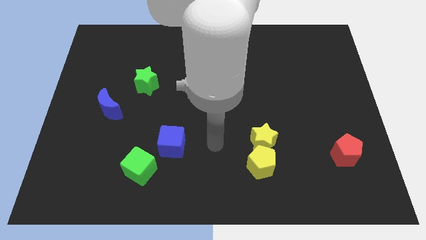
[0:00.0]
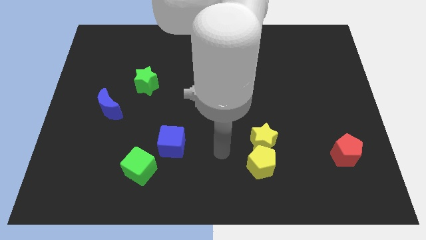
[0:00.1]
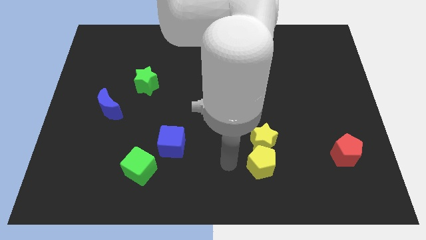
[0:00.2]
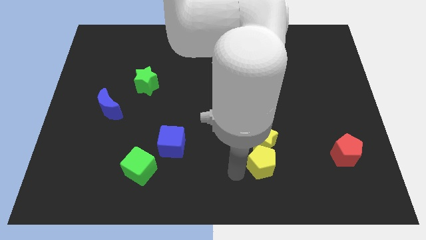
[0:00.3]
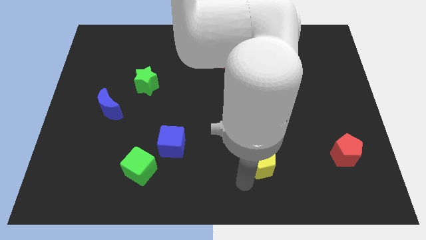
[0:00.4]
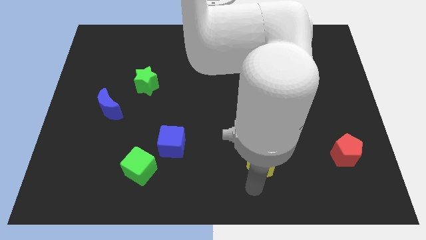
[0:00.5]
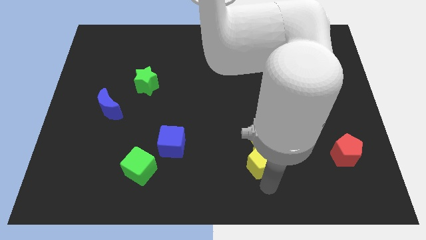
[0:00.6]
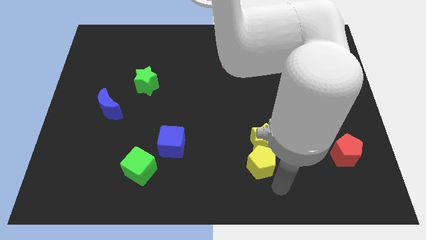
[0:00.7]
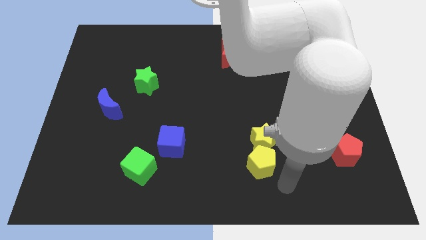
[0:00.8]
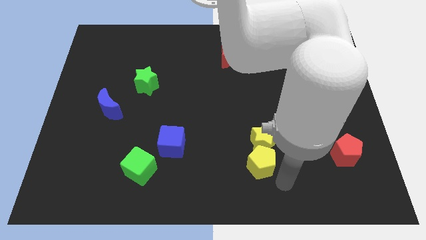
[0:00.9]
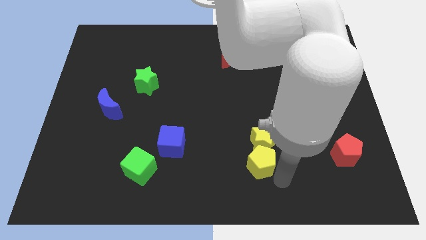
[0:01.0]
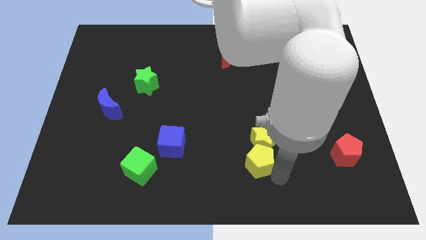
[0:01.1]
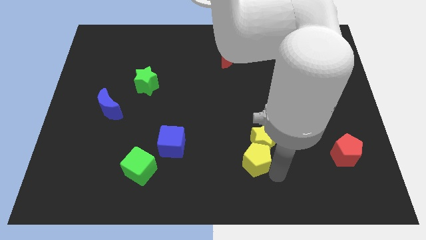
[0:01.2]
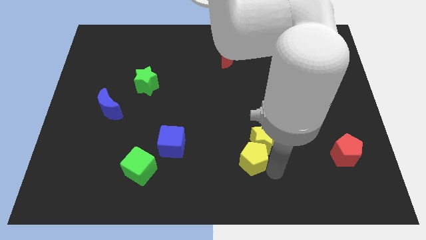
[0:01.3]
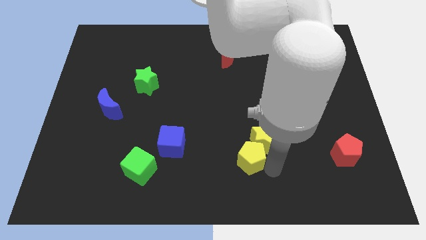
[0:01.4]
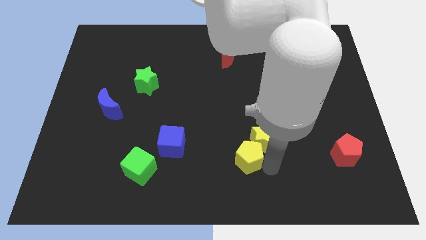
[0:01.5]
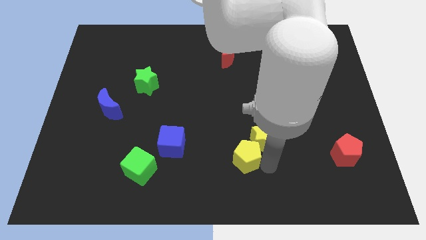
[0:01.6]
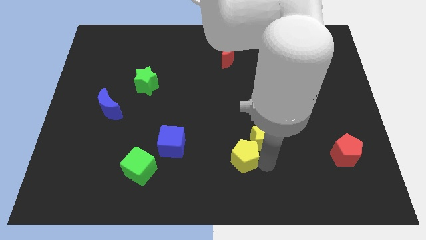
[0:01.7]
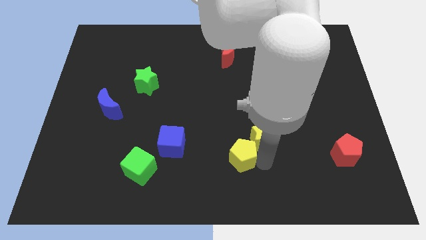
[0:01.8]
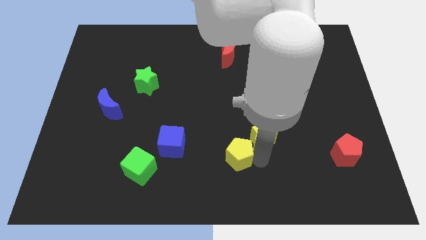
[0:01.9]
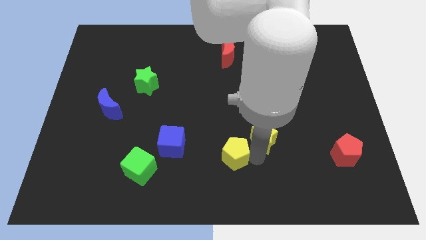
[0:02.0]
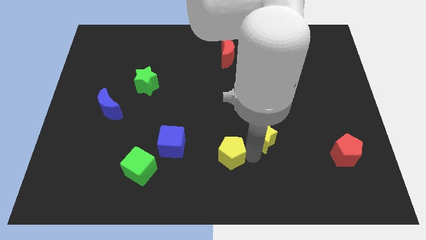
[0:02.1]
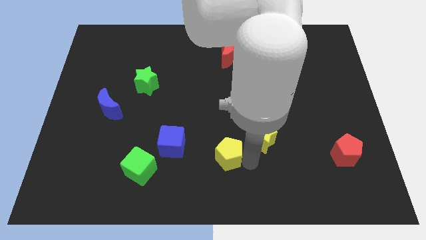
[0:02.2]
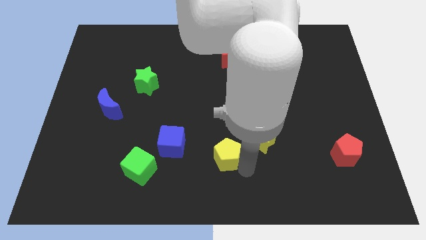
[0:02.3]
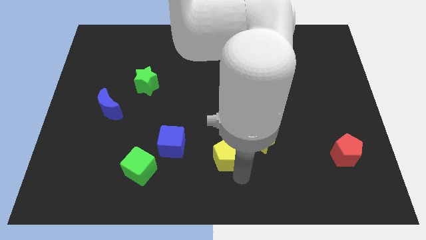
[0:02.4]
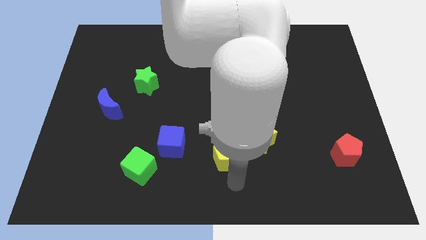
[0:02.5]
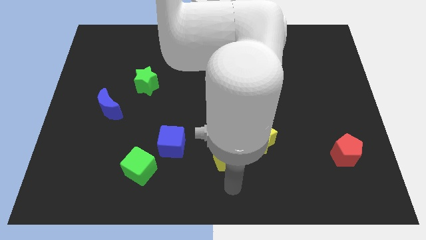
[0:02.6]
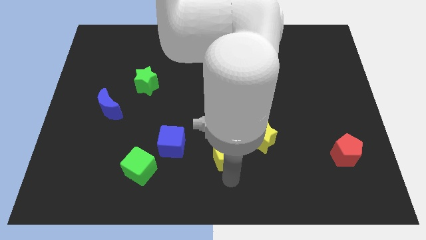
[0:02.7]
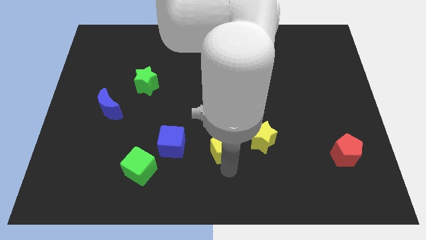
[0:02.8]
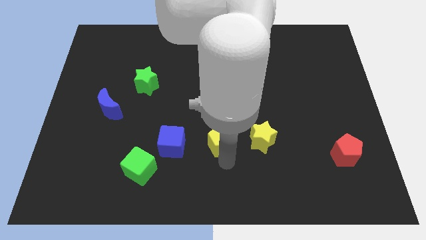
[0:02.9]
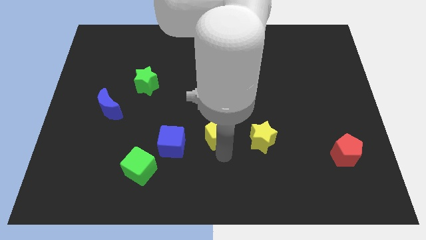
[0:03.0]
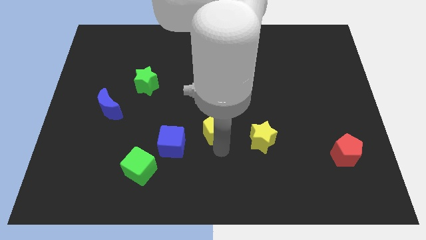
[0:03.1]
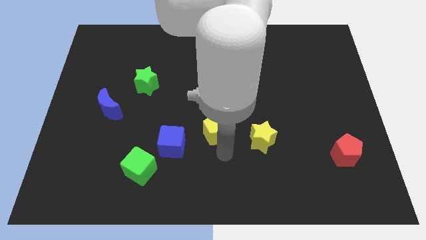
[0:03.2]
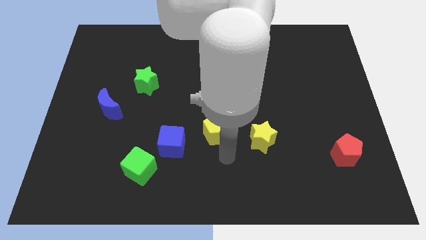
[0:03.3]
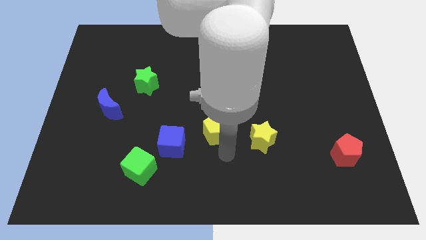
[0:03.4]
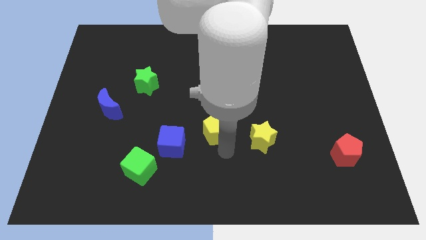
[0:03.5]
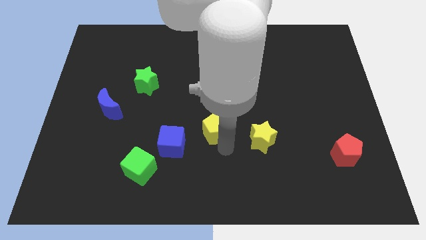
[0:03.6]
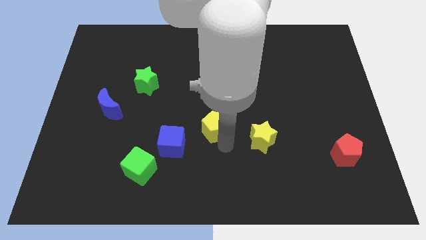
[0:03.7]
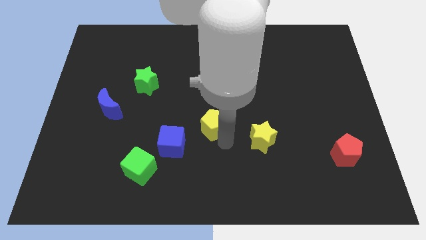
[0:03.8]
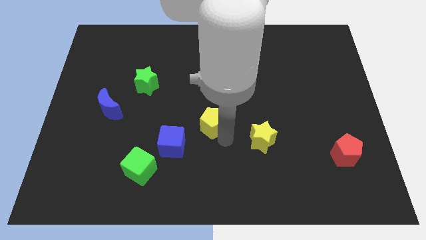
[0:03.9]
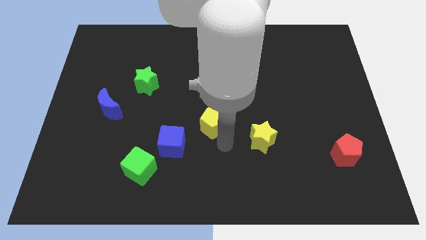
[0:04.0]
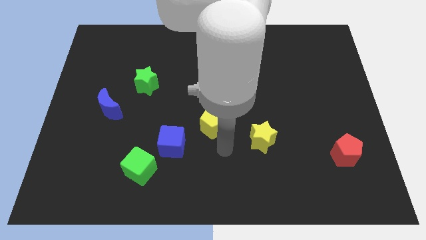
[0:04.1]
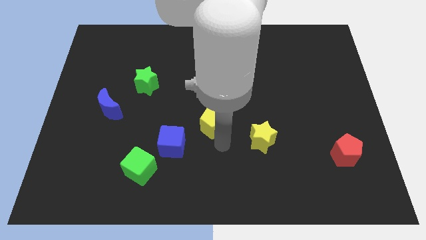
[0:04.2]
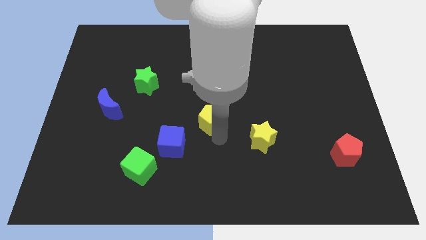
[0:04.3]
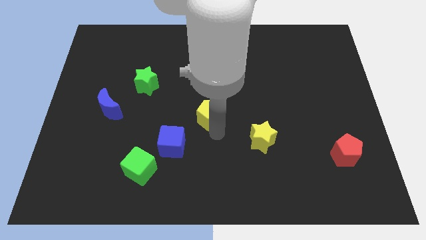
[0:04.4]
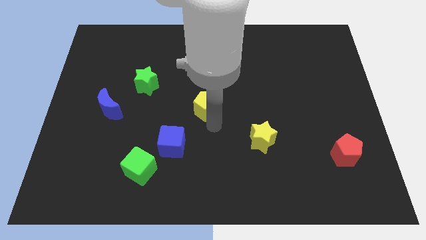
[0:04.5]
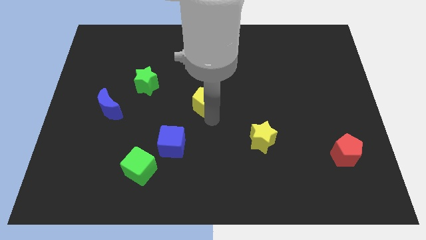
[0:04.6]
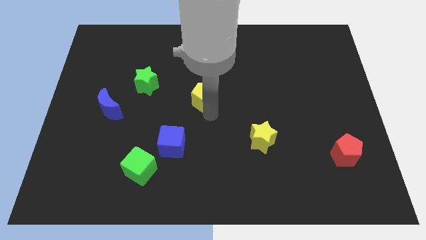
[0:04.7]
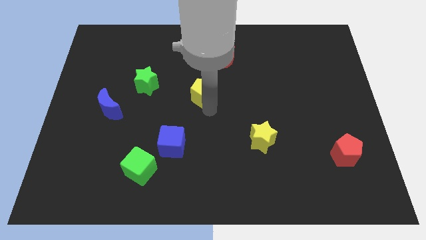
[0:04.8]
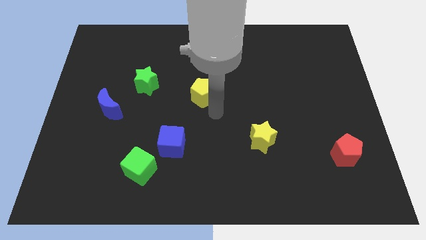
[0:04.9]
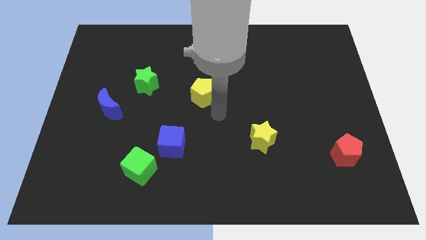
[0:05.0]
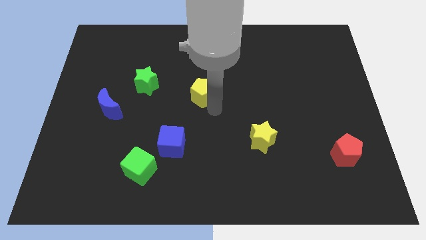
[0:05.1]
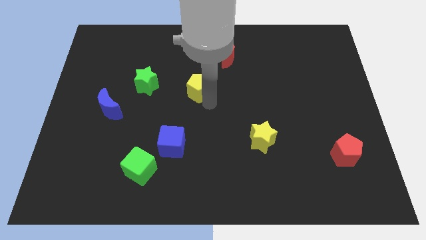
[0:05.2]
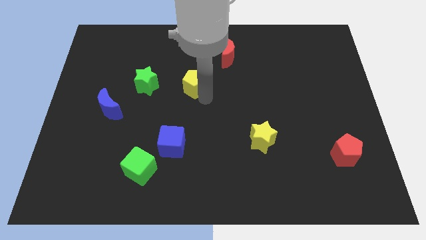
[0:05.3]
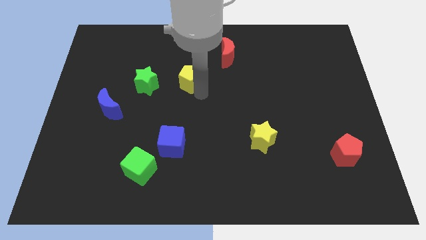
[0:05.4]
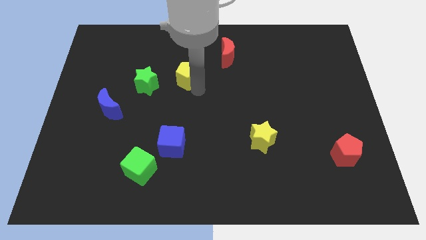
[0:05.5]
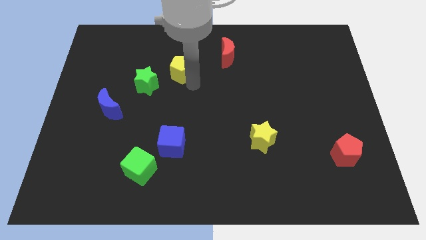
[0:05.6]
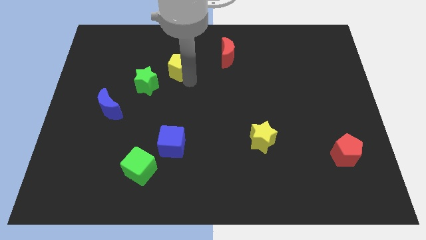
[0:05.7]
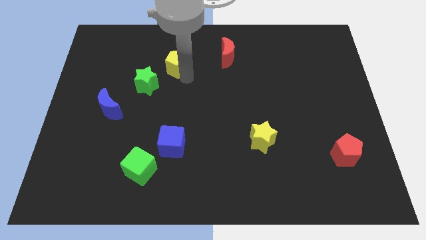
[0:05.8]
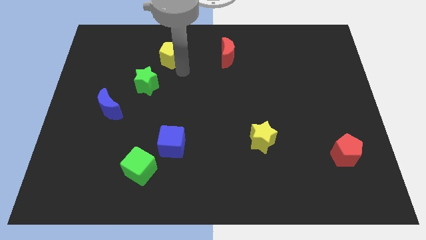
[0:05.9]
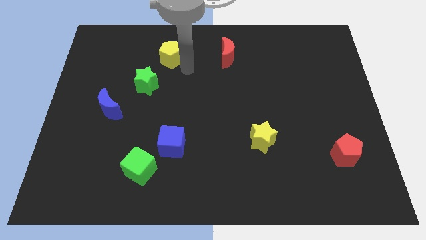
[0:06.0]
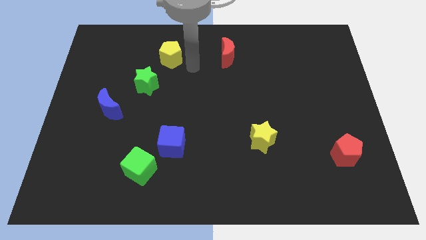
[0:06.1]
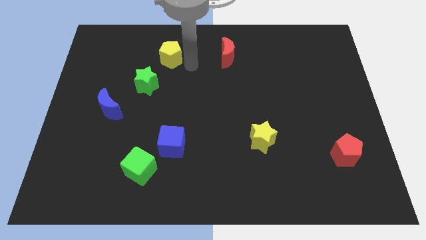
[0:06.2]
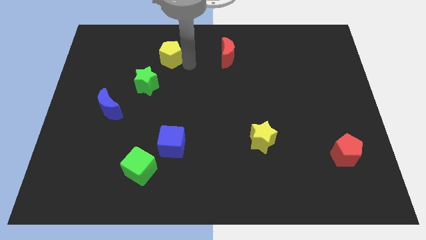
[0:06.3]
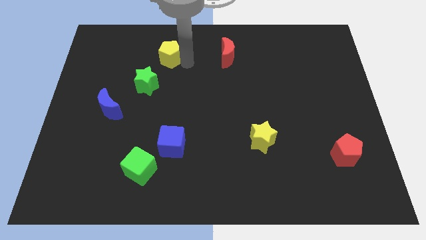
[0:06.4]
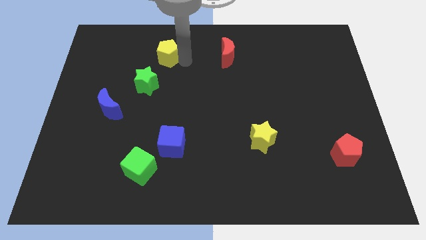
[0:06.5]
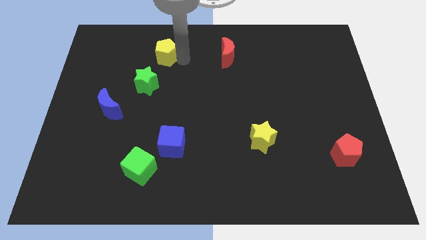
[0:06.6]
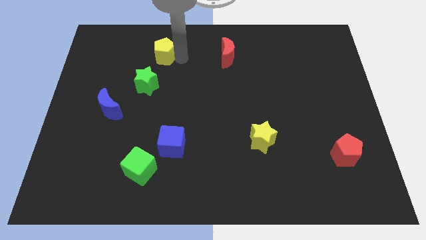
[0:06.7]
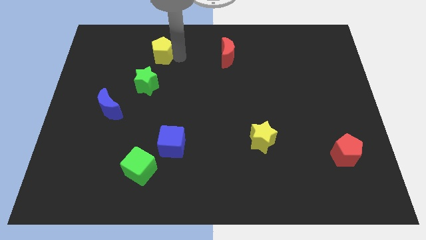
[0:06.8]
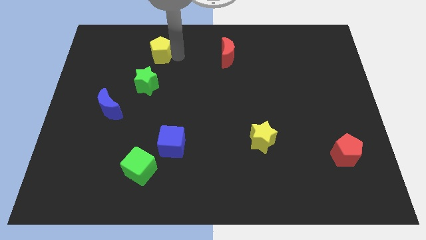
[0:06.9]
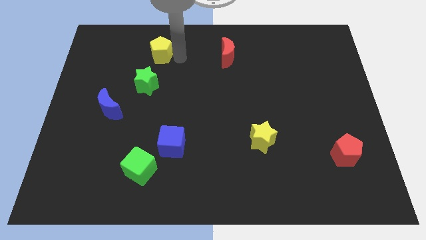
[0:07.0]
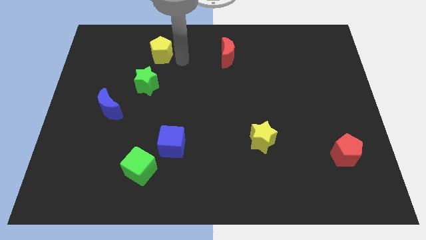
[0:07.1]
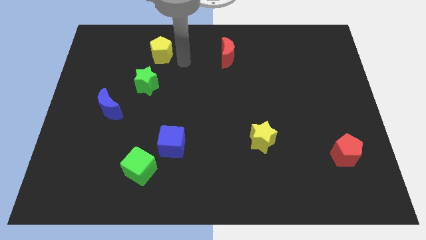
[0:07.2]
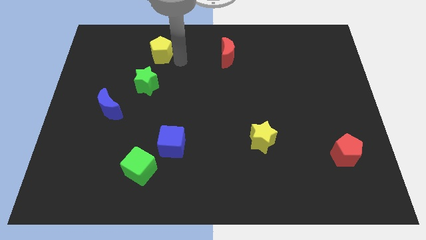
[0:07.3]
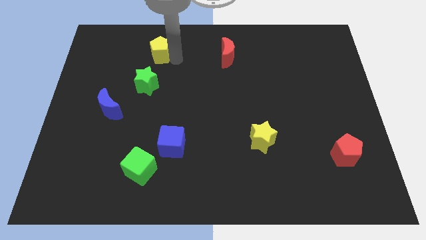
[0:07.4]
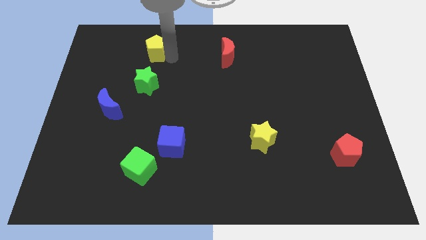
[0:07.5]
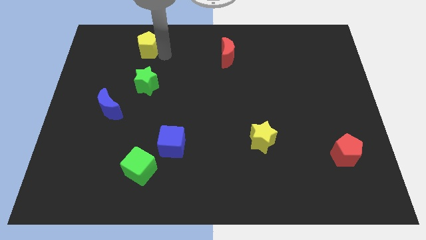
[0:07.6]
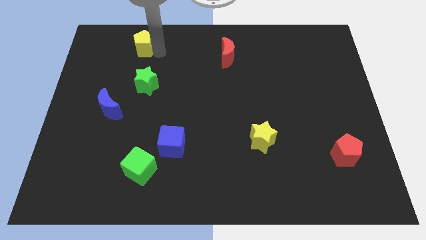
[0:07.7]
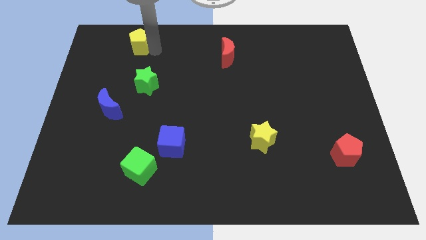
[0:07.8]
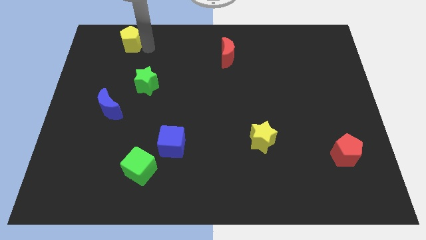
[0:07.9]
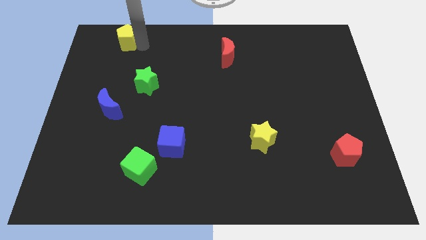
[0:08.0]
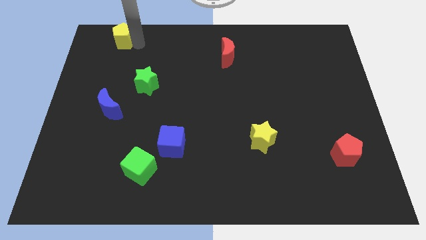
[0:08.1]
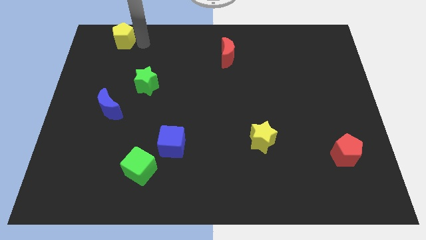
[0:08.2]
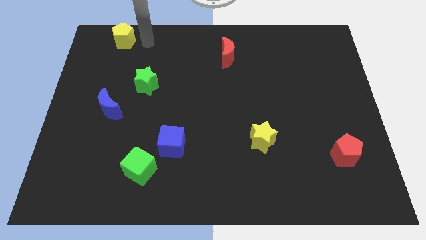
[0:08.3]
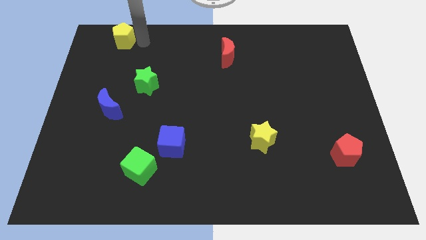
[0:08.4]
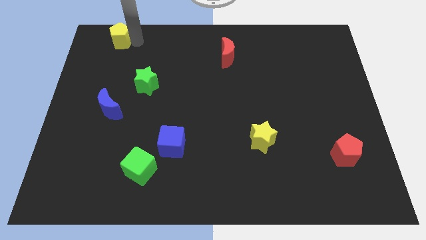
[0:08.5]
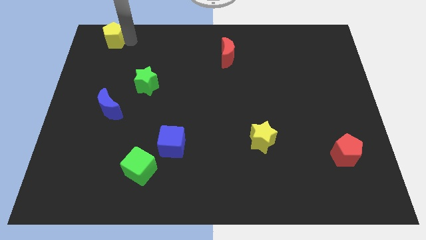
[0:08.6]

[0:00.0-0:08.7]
push the yellow pentagon to the top left
